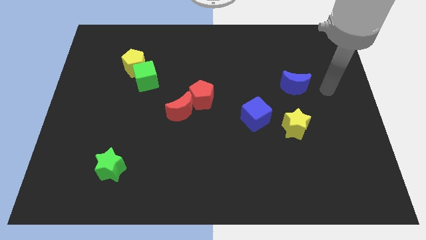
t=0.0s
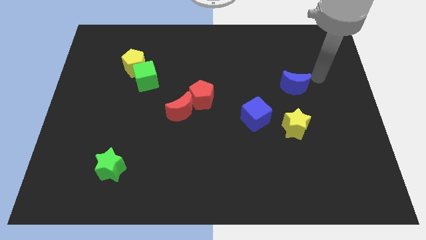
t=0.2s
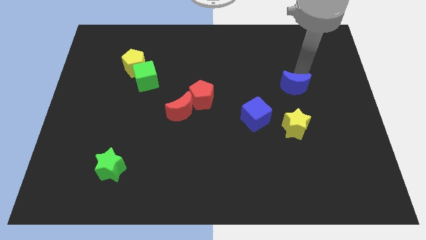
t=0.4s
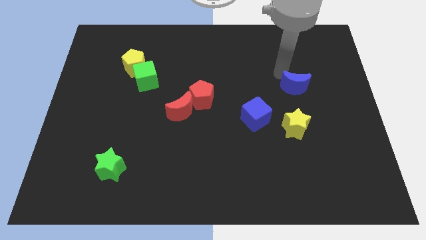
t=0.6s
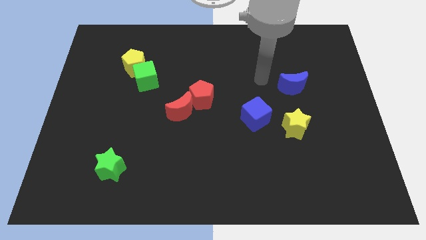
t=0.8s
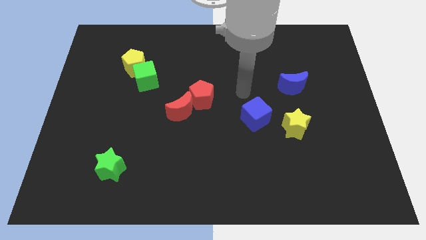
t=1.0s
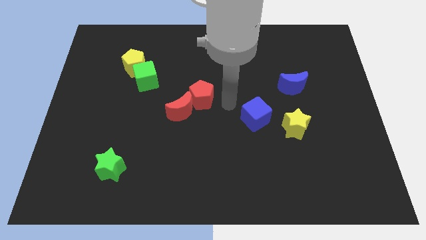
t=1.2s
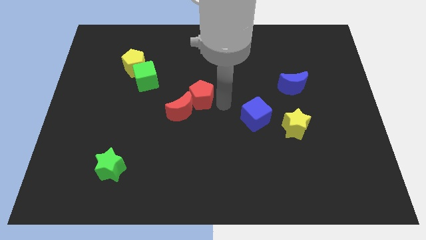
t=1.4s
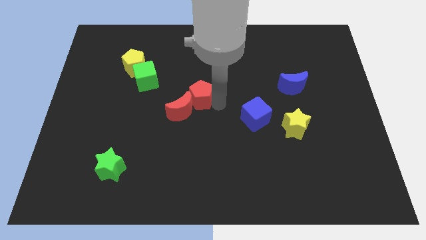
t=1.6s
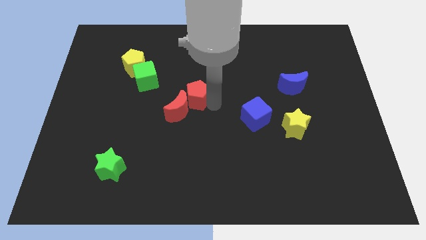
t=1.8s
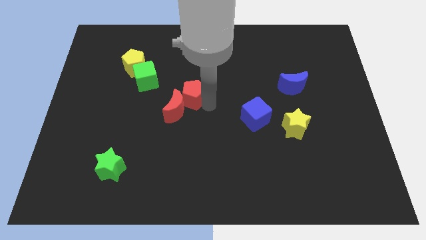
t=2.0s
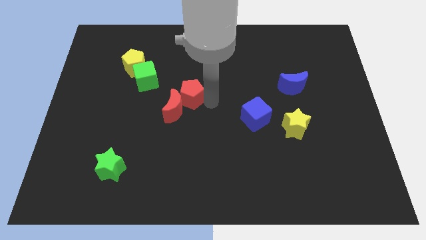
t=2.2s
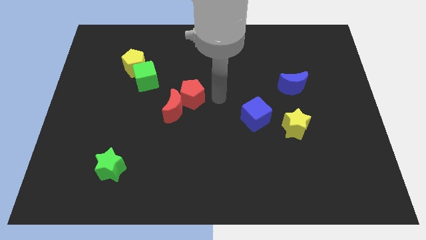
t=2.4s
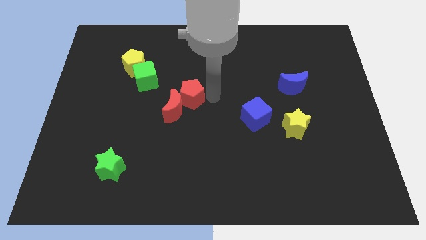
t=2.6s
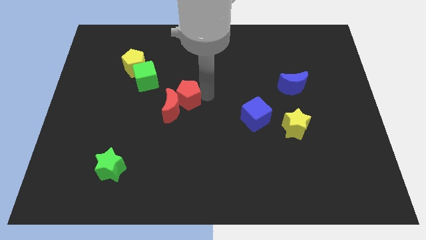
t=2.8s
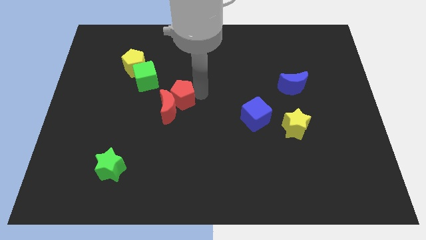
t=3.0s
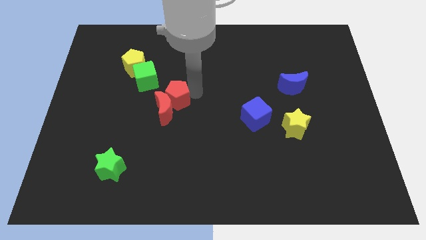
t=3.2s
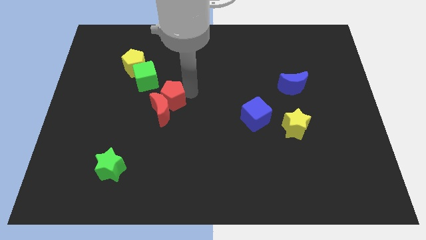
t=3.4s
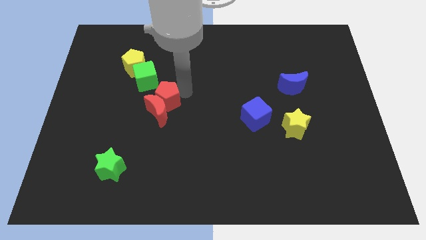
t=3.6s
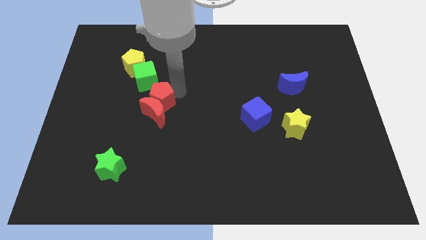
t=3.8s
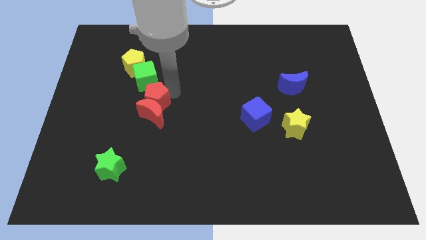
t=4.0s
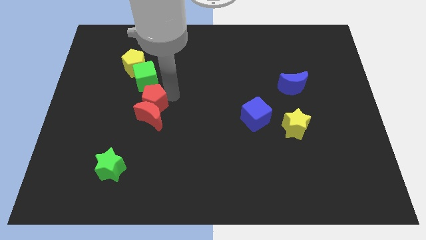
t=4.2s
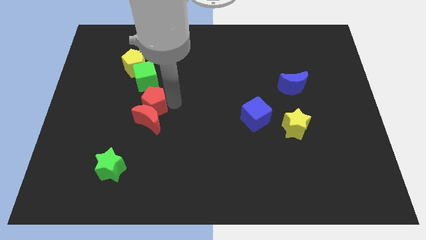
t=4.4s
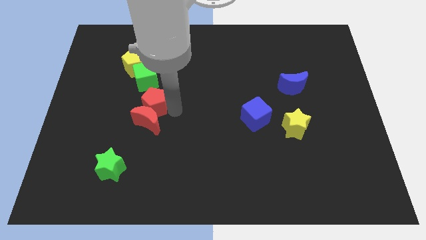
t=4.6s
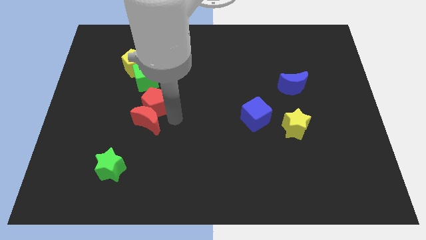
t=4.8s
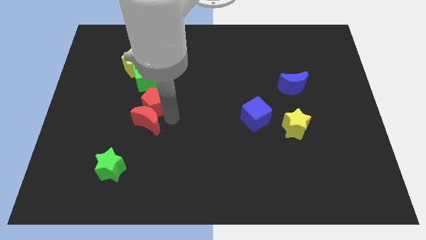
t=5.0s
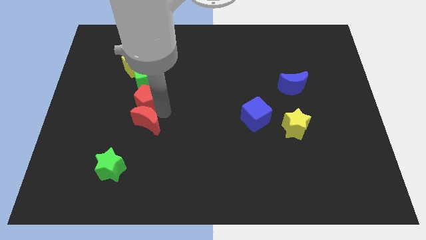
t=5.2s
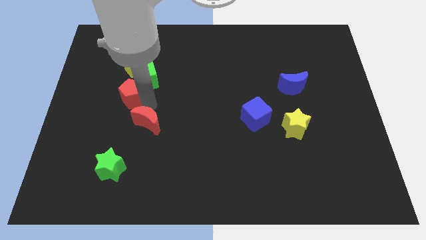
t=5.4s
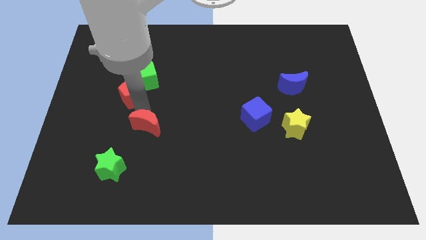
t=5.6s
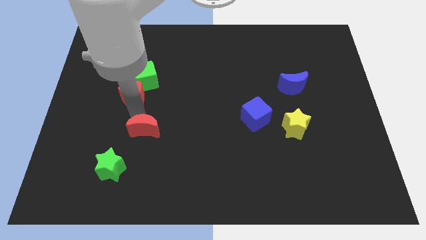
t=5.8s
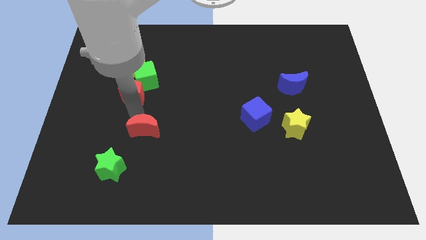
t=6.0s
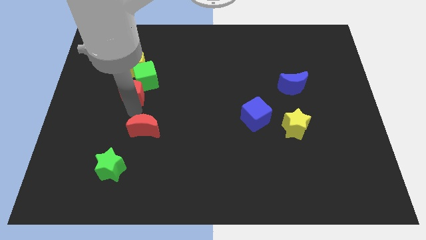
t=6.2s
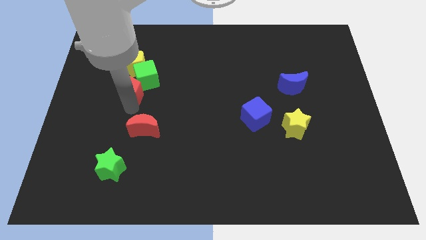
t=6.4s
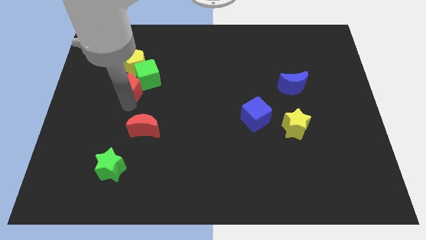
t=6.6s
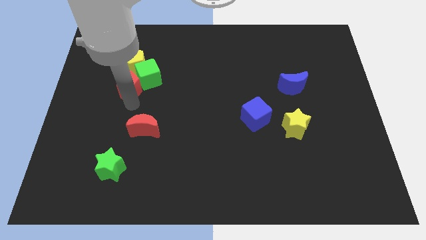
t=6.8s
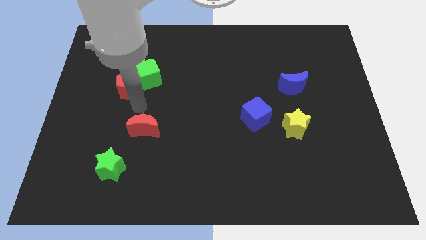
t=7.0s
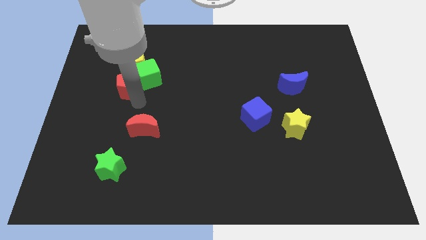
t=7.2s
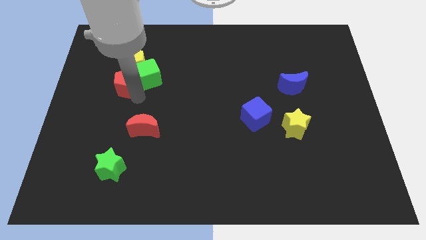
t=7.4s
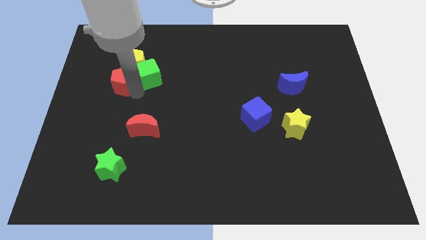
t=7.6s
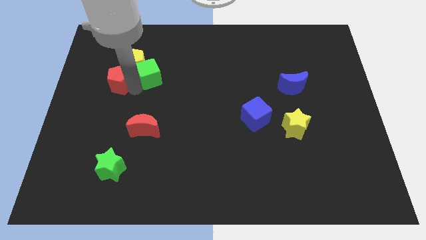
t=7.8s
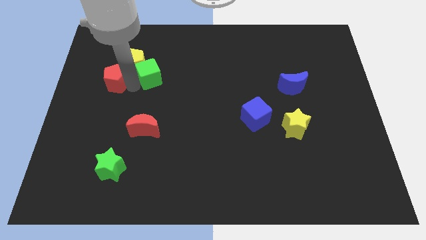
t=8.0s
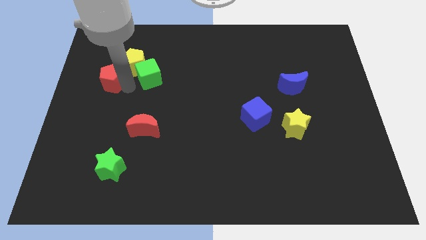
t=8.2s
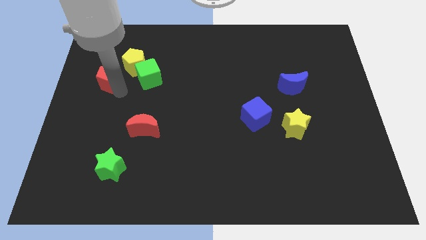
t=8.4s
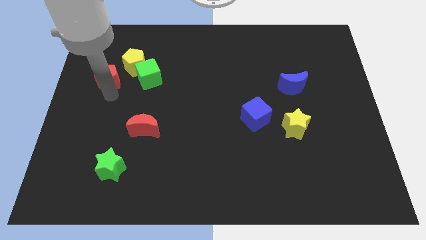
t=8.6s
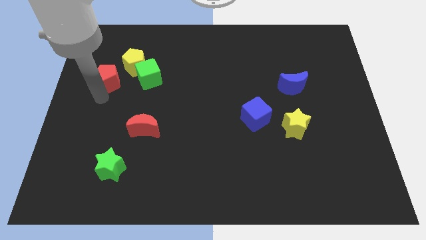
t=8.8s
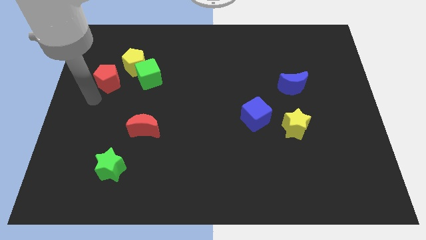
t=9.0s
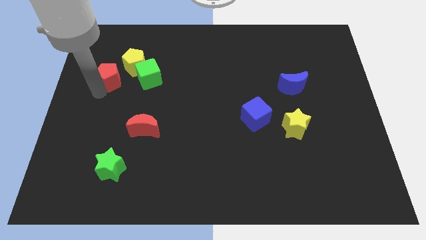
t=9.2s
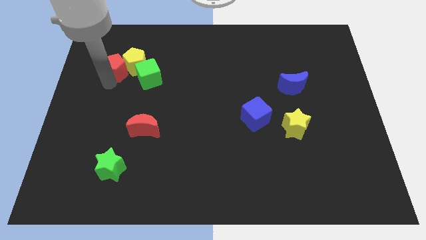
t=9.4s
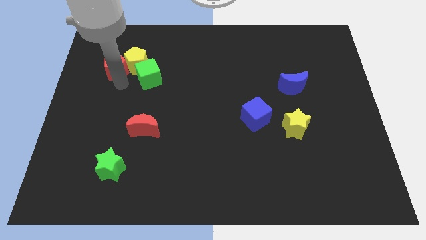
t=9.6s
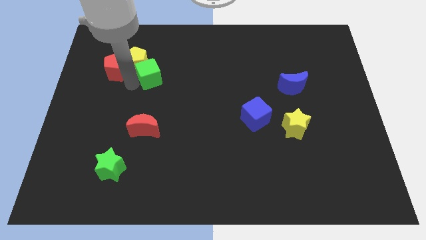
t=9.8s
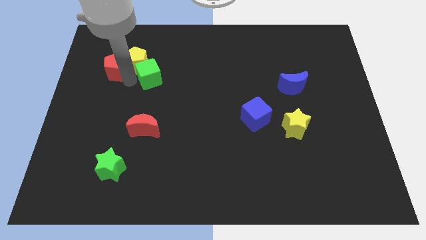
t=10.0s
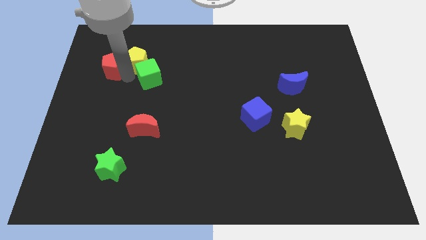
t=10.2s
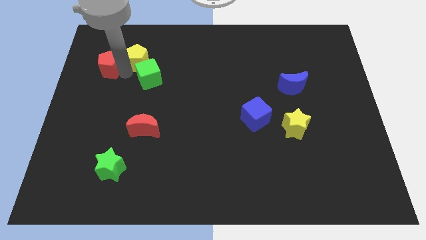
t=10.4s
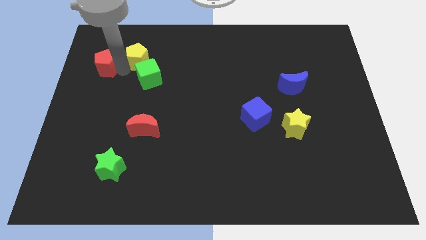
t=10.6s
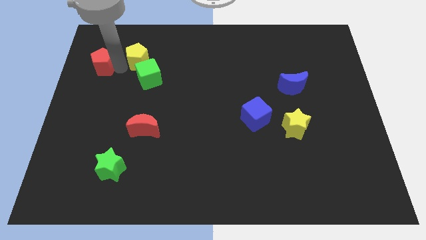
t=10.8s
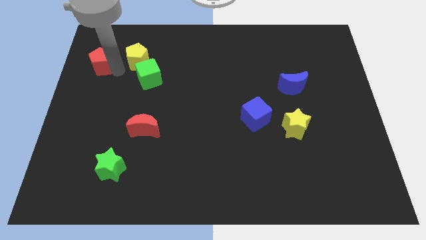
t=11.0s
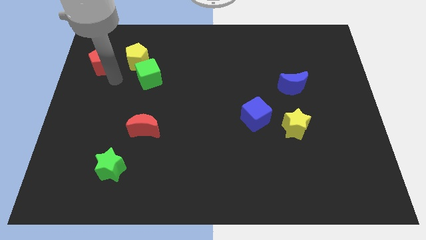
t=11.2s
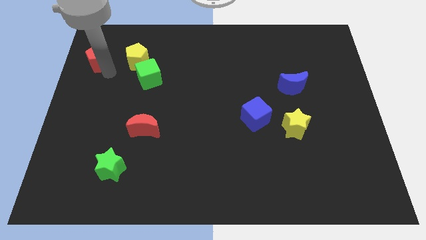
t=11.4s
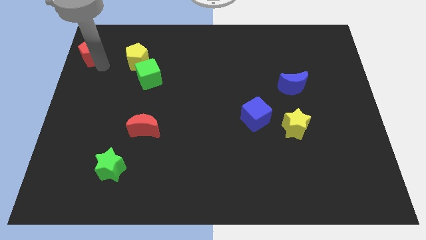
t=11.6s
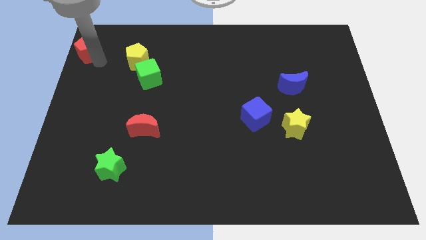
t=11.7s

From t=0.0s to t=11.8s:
move the red pentagon to the top left of the board
